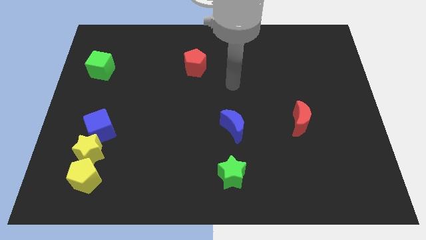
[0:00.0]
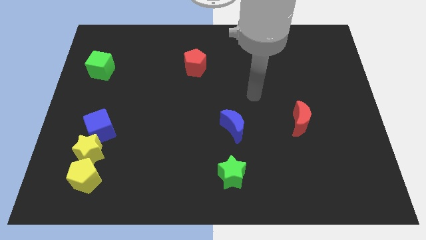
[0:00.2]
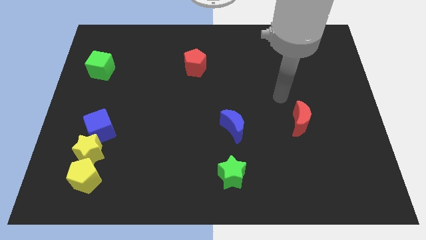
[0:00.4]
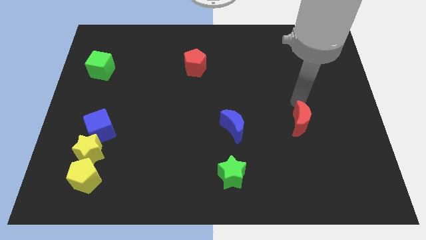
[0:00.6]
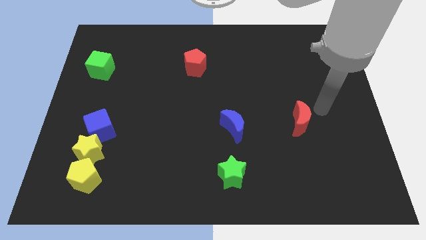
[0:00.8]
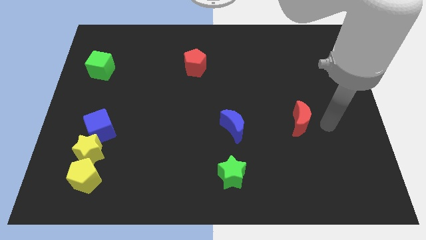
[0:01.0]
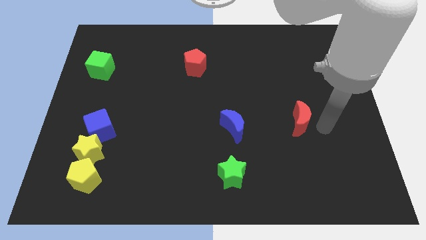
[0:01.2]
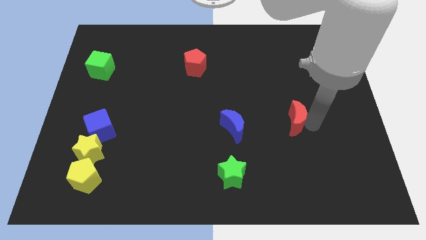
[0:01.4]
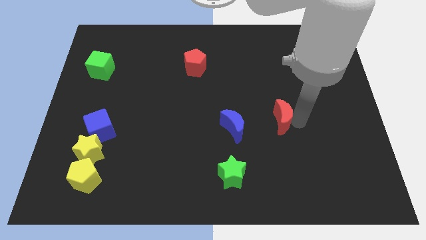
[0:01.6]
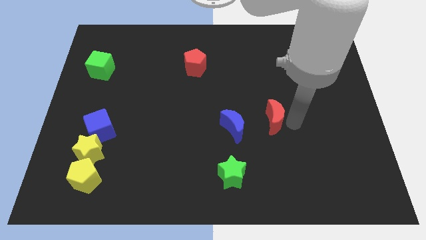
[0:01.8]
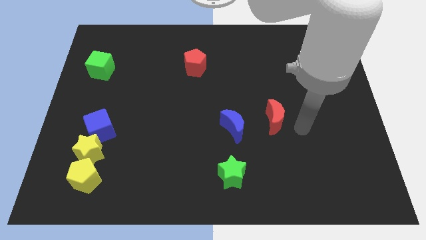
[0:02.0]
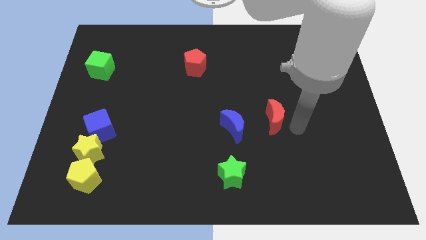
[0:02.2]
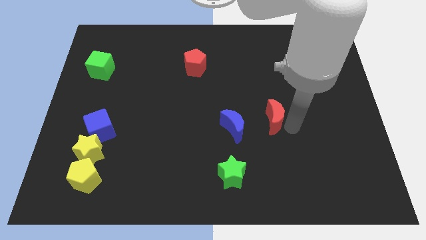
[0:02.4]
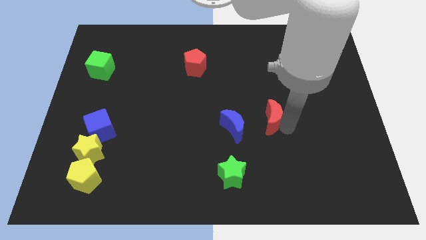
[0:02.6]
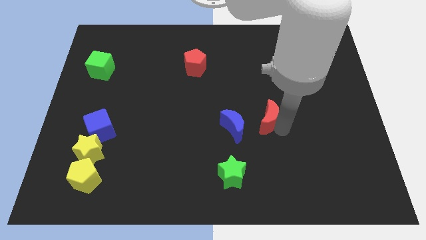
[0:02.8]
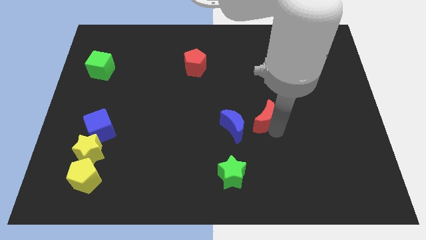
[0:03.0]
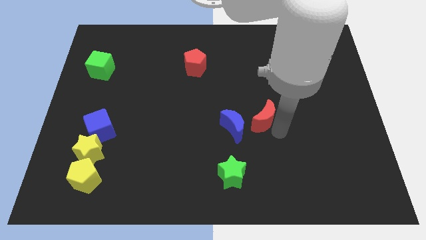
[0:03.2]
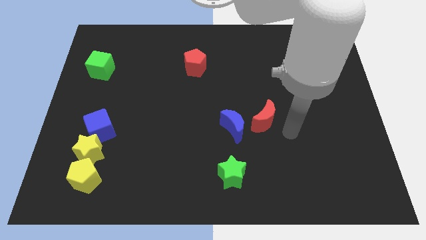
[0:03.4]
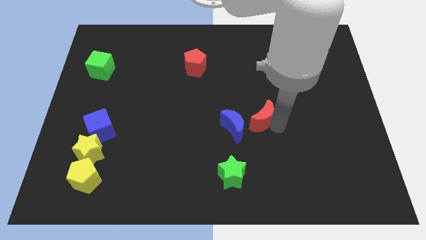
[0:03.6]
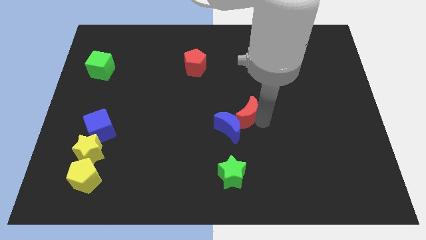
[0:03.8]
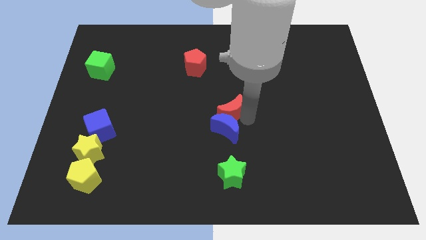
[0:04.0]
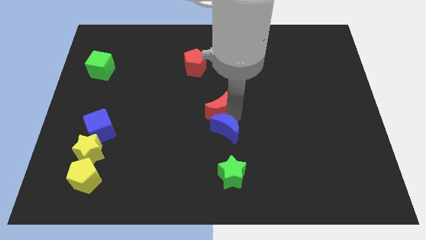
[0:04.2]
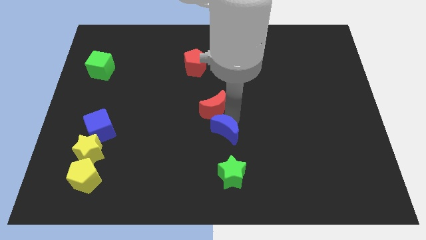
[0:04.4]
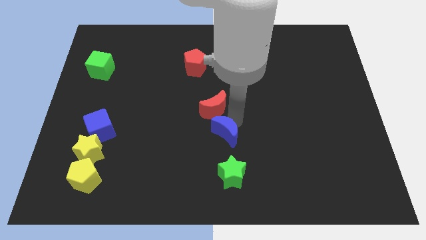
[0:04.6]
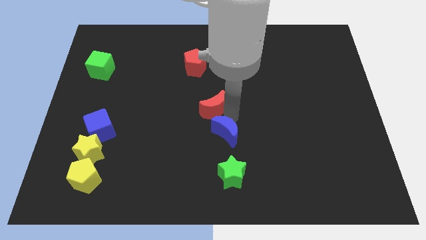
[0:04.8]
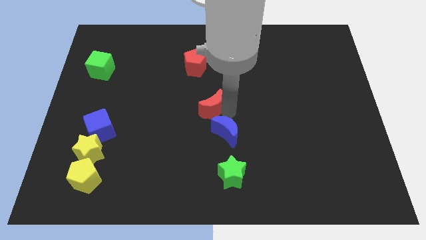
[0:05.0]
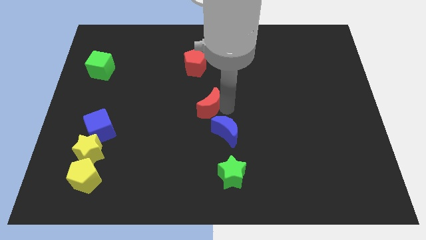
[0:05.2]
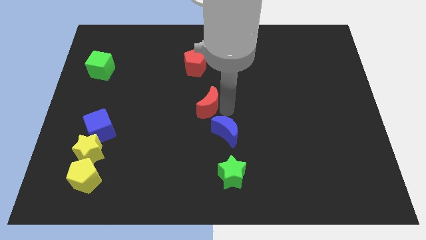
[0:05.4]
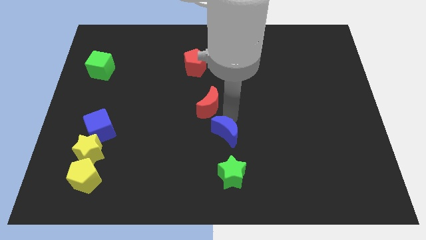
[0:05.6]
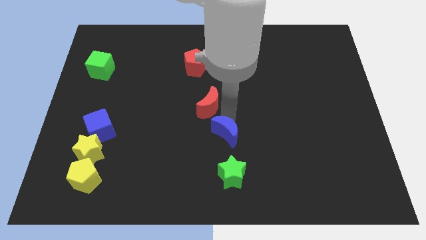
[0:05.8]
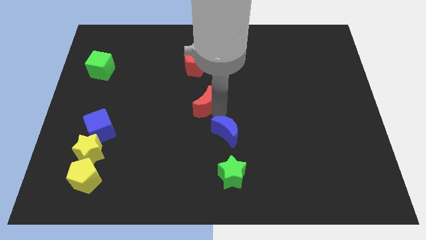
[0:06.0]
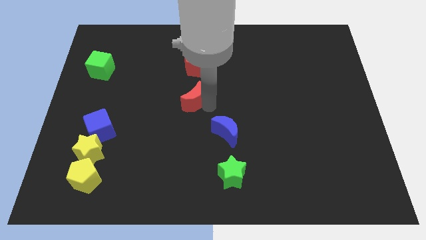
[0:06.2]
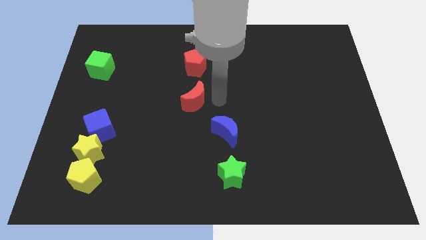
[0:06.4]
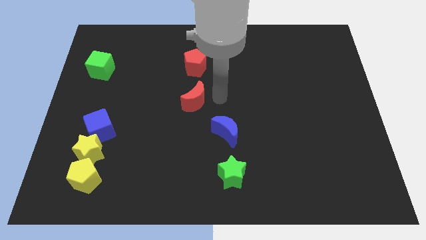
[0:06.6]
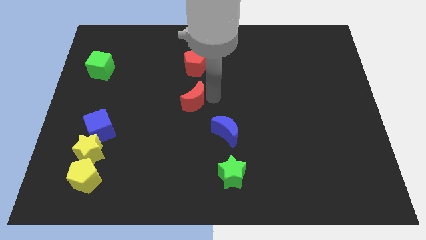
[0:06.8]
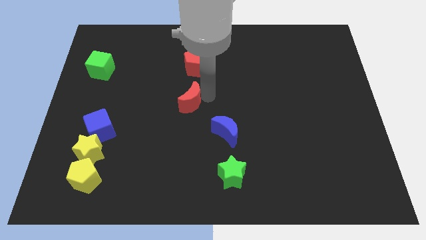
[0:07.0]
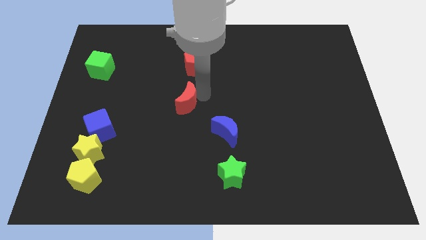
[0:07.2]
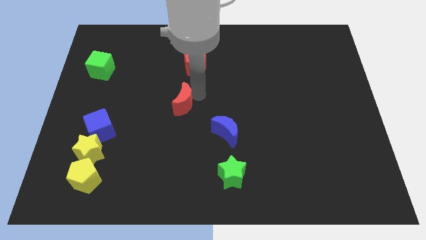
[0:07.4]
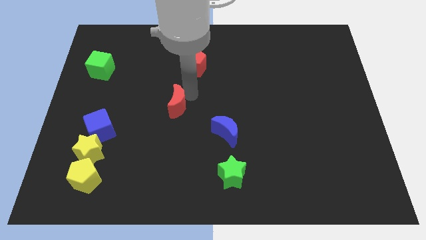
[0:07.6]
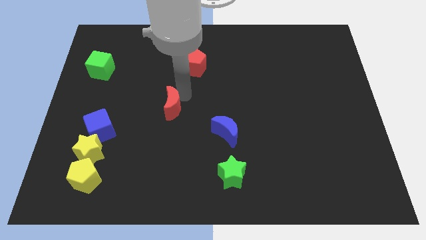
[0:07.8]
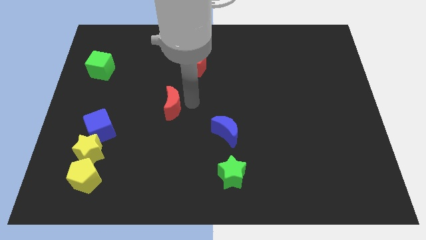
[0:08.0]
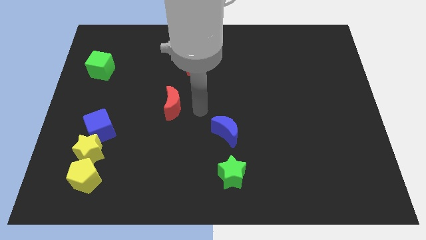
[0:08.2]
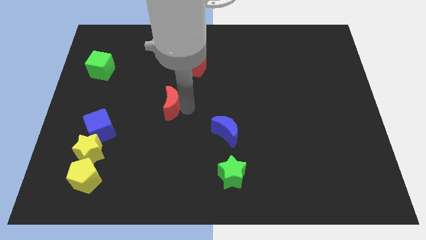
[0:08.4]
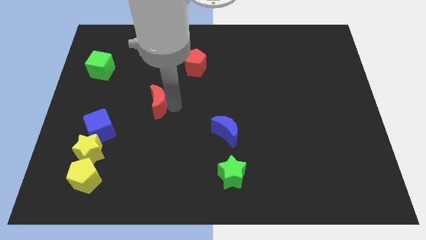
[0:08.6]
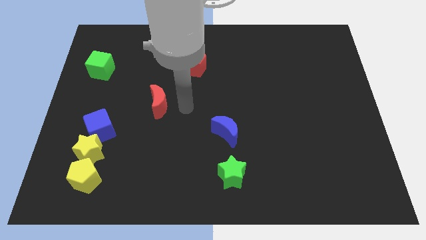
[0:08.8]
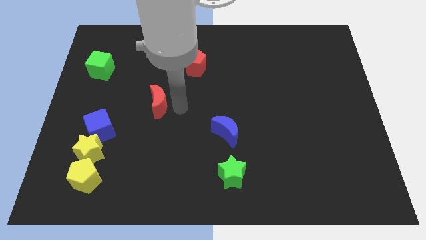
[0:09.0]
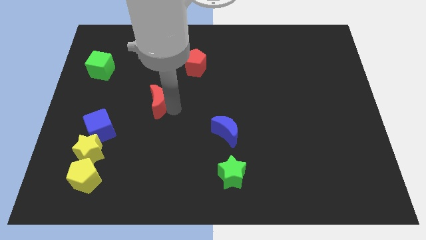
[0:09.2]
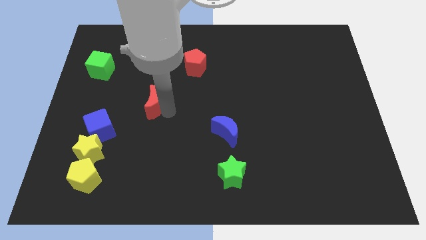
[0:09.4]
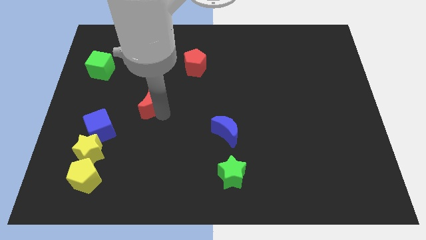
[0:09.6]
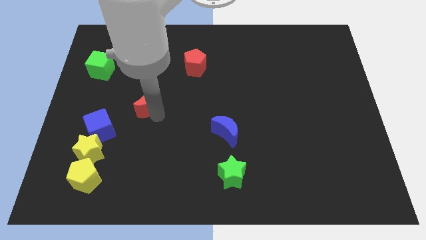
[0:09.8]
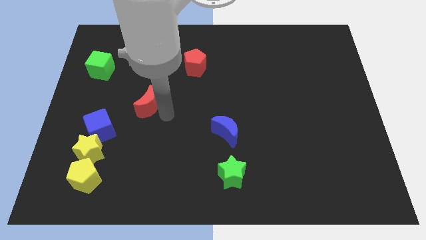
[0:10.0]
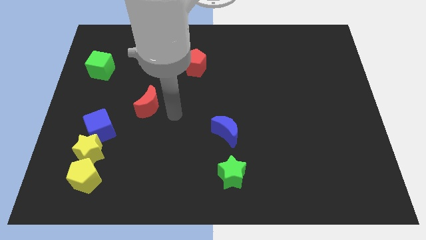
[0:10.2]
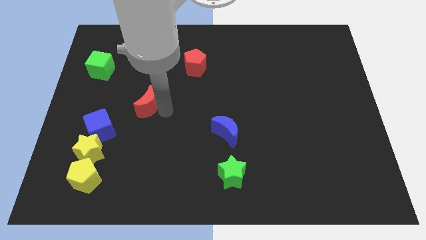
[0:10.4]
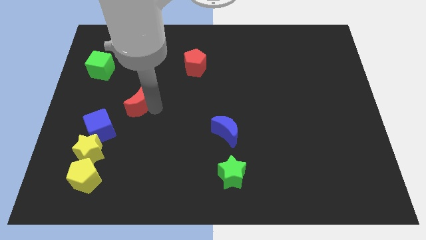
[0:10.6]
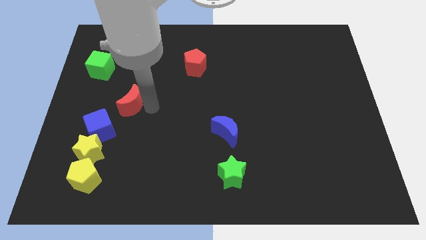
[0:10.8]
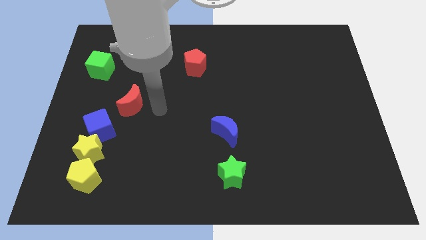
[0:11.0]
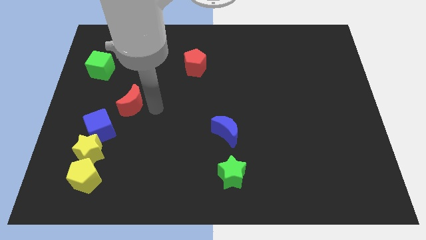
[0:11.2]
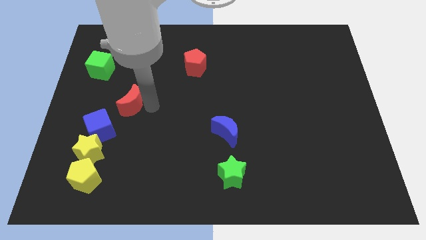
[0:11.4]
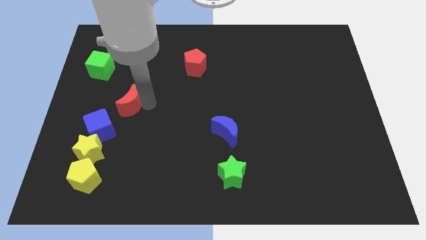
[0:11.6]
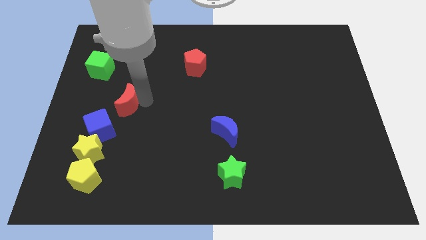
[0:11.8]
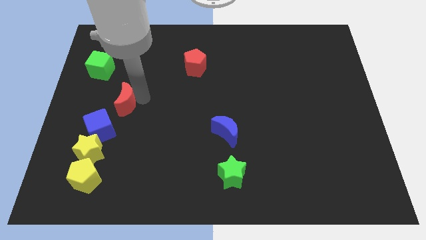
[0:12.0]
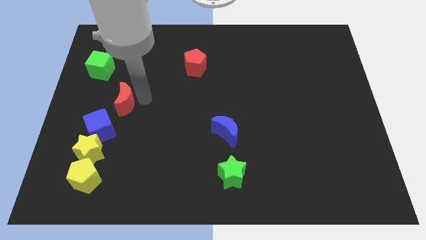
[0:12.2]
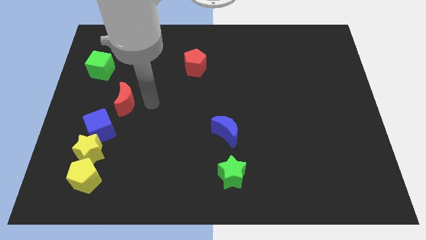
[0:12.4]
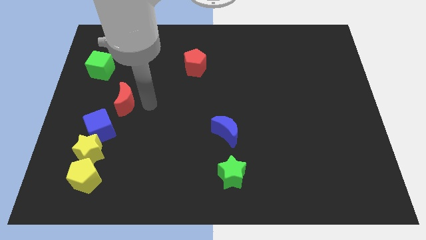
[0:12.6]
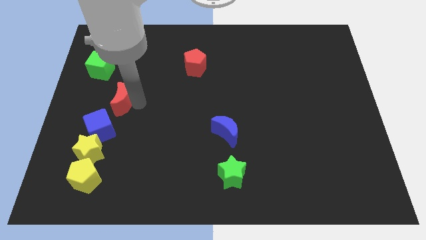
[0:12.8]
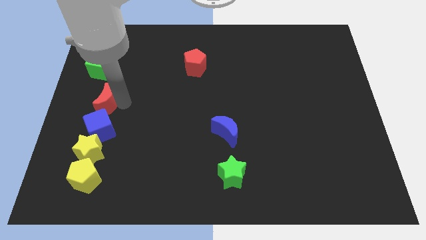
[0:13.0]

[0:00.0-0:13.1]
put the red moon below the green cube

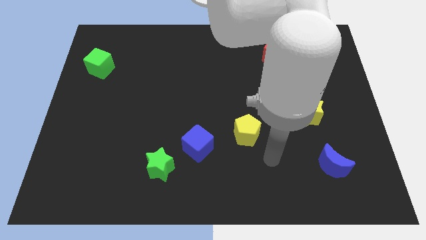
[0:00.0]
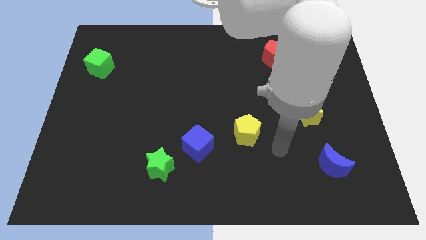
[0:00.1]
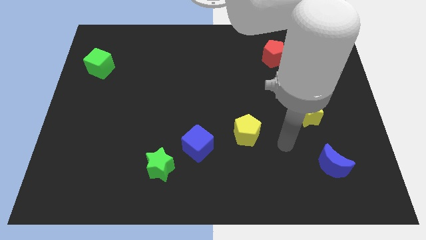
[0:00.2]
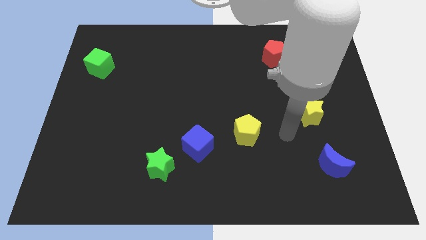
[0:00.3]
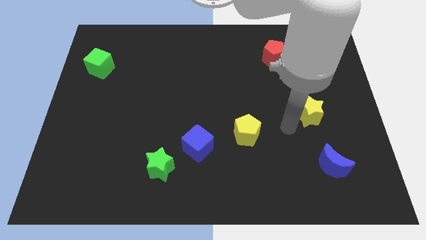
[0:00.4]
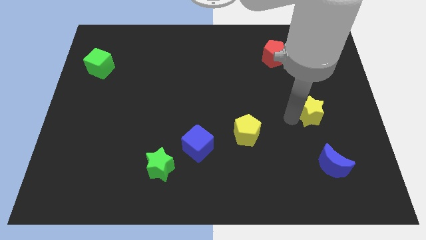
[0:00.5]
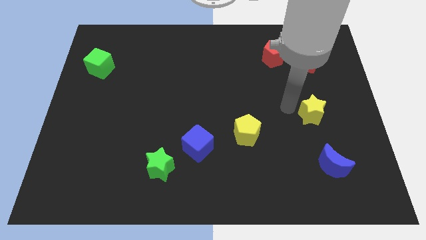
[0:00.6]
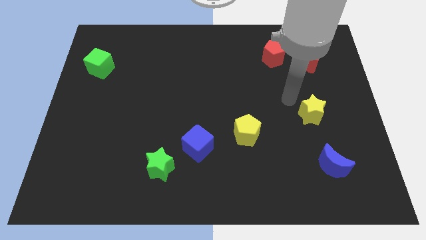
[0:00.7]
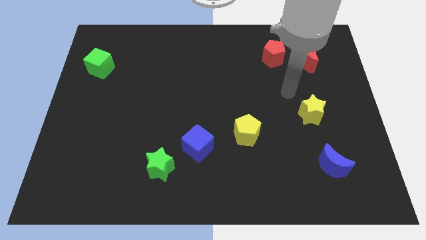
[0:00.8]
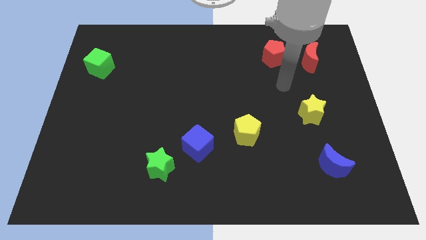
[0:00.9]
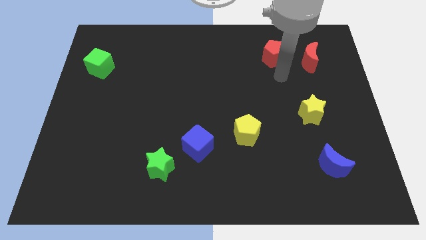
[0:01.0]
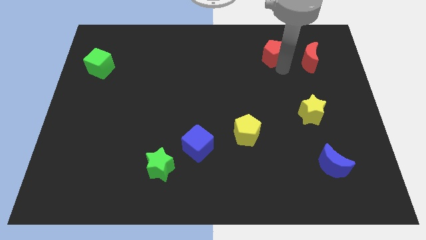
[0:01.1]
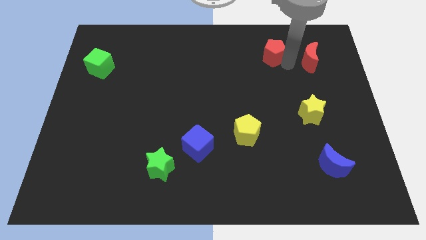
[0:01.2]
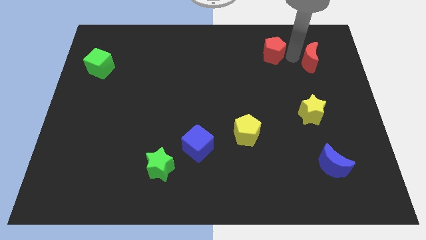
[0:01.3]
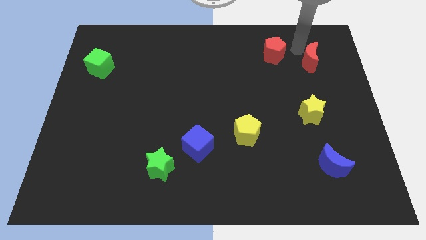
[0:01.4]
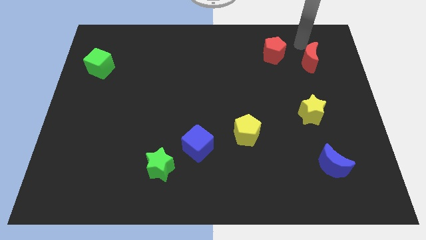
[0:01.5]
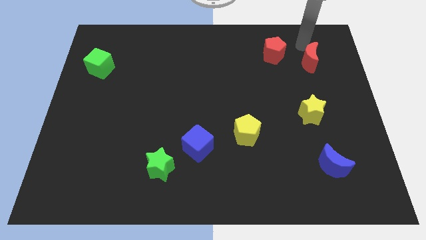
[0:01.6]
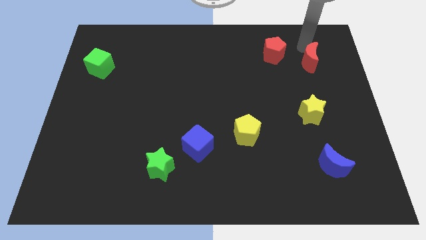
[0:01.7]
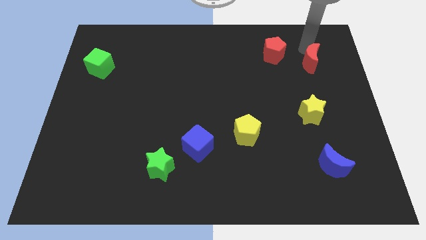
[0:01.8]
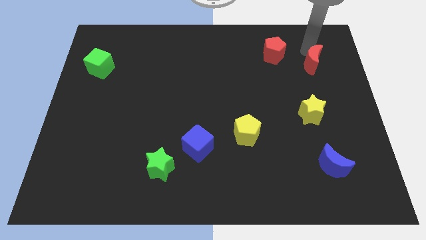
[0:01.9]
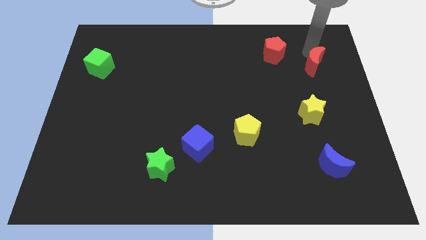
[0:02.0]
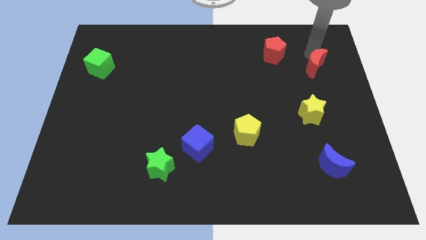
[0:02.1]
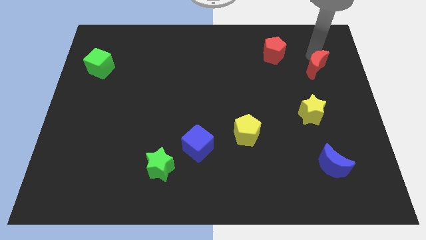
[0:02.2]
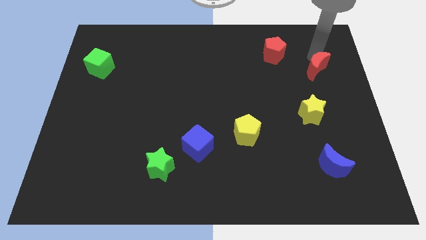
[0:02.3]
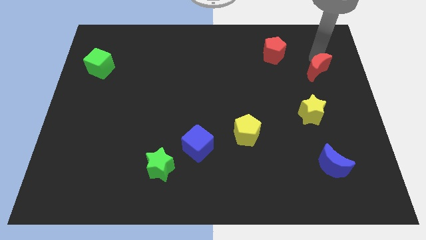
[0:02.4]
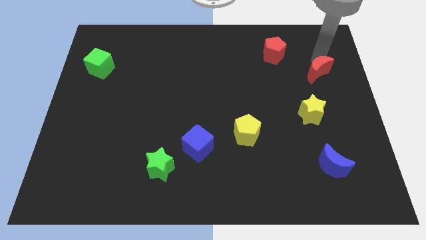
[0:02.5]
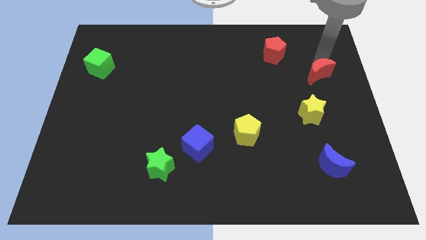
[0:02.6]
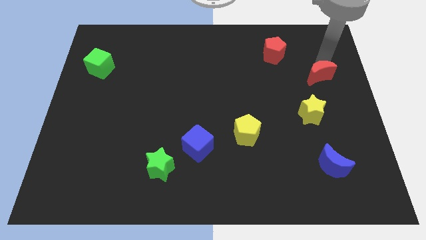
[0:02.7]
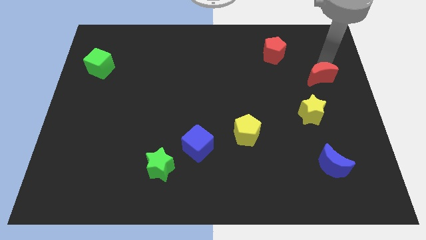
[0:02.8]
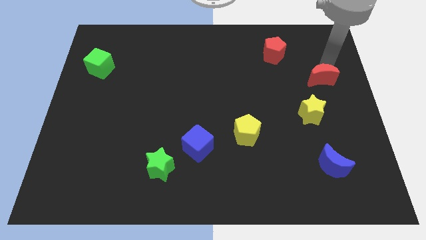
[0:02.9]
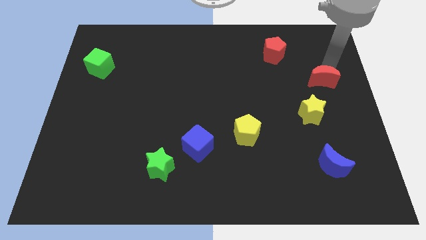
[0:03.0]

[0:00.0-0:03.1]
push the red moon to the top right of the yellow star
